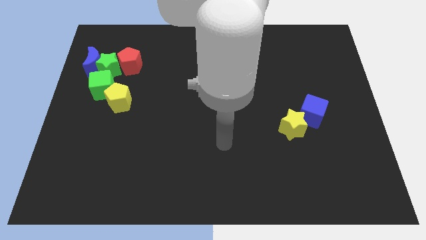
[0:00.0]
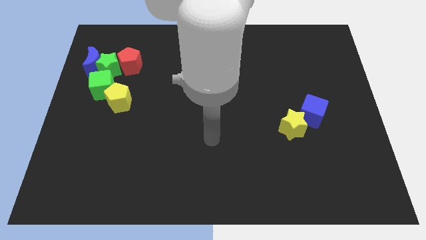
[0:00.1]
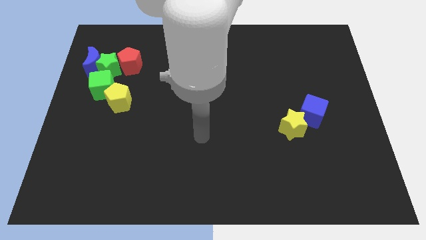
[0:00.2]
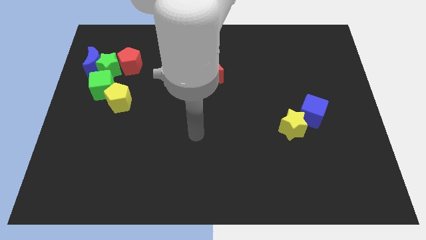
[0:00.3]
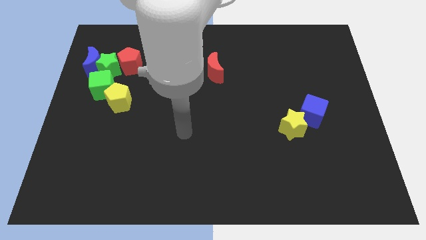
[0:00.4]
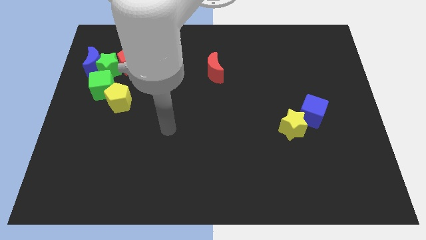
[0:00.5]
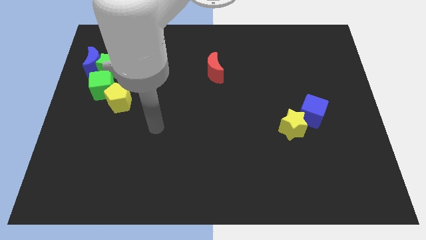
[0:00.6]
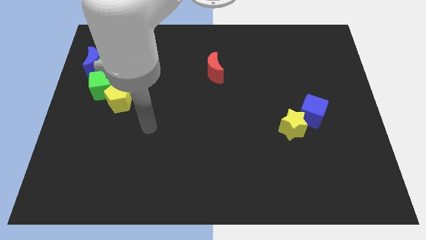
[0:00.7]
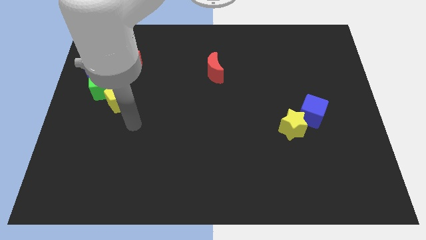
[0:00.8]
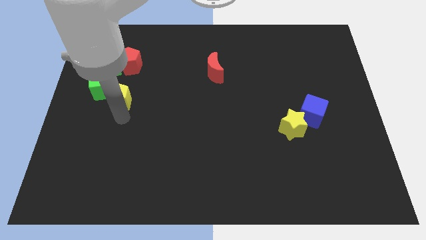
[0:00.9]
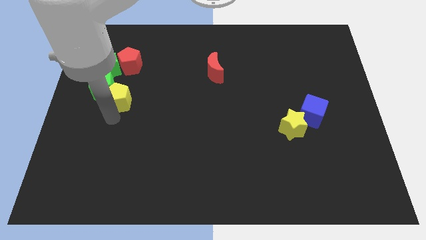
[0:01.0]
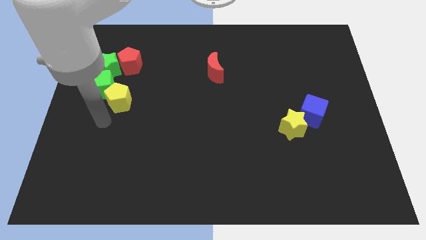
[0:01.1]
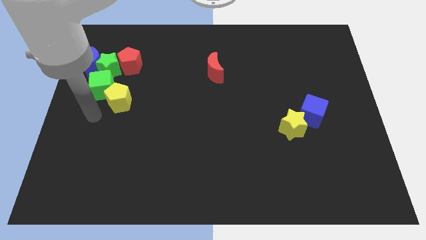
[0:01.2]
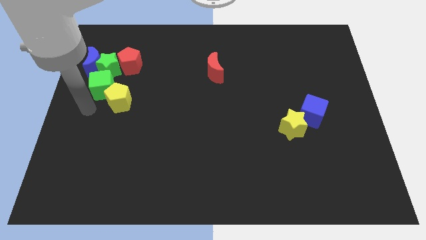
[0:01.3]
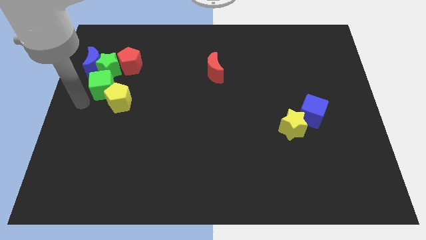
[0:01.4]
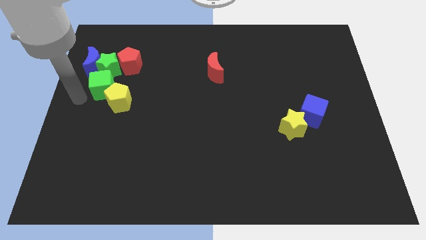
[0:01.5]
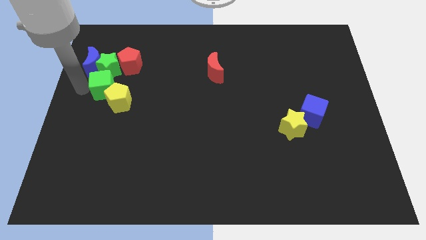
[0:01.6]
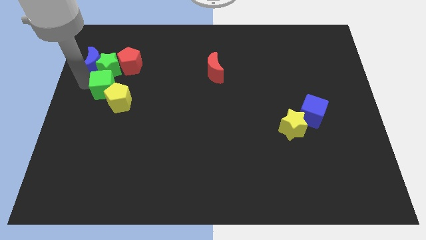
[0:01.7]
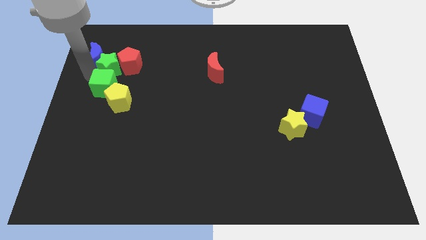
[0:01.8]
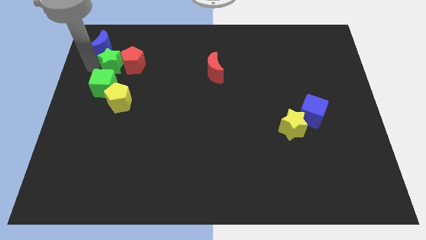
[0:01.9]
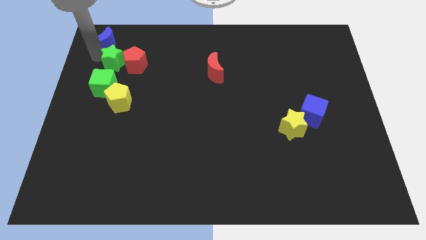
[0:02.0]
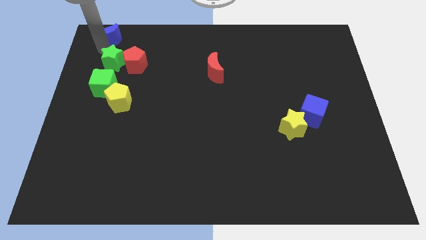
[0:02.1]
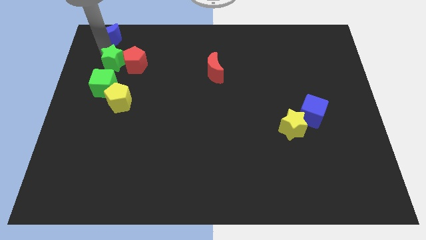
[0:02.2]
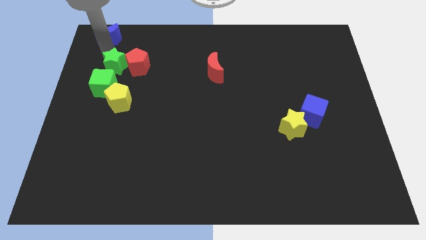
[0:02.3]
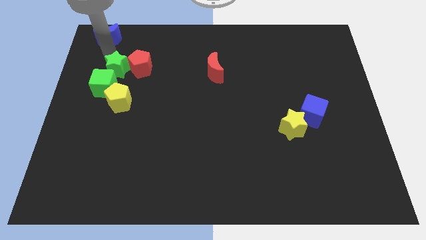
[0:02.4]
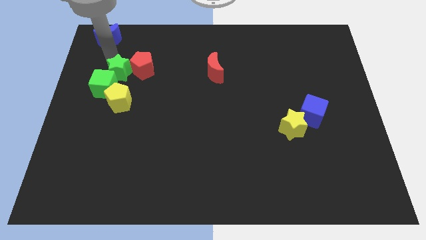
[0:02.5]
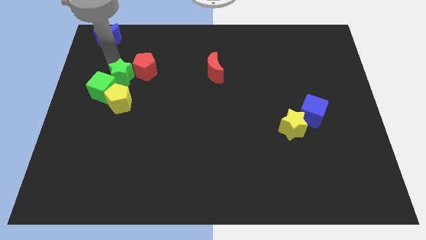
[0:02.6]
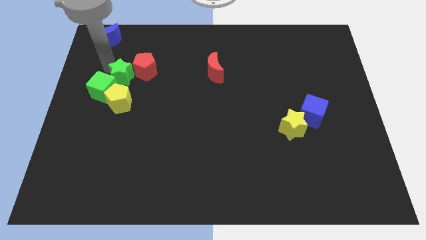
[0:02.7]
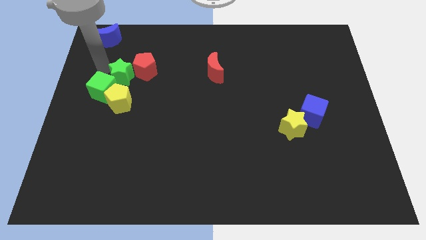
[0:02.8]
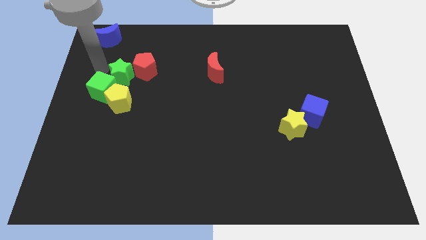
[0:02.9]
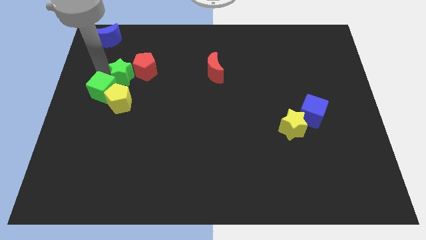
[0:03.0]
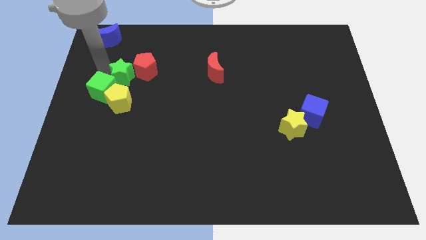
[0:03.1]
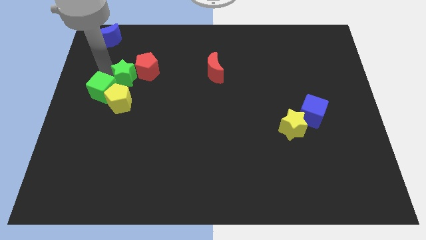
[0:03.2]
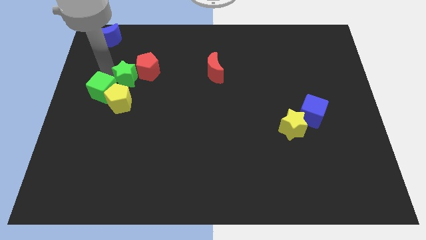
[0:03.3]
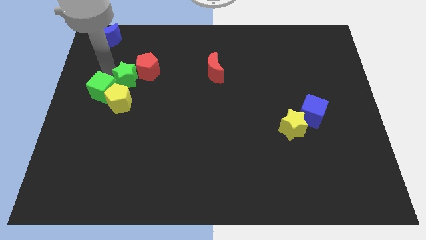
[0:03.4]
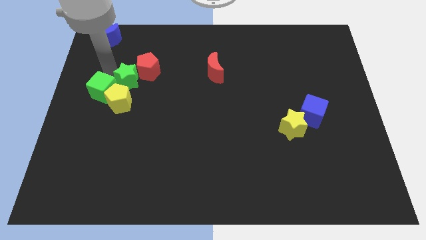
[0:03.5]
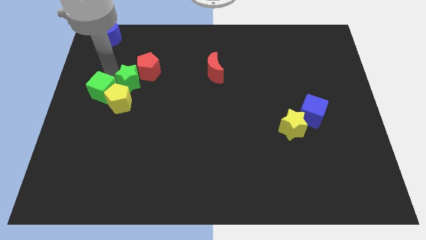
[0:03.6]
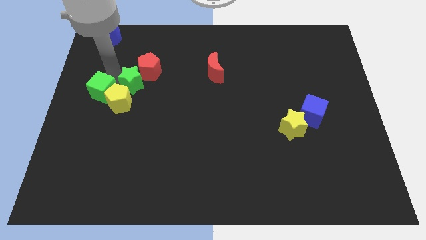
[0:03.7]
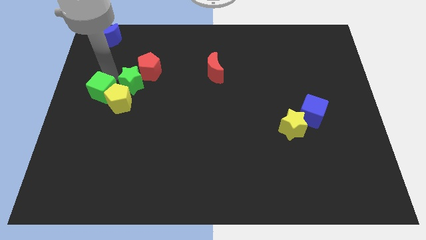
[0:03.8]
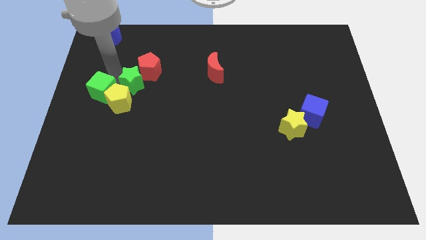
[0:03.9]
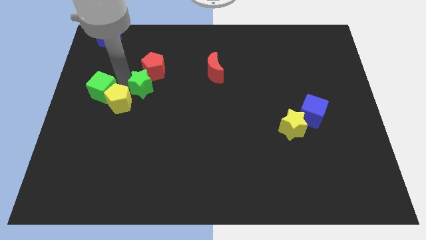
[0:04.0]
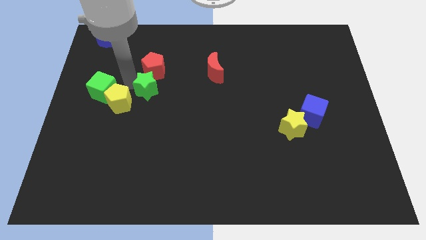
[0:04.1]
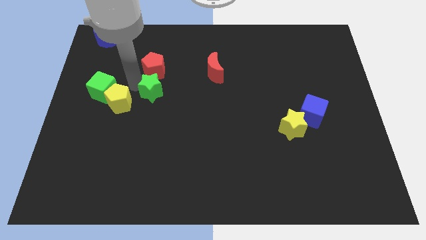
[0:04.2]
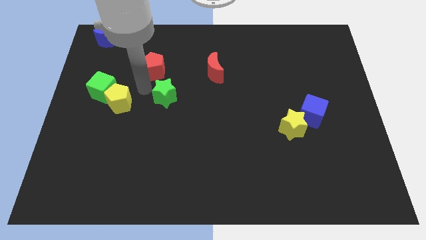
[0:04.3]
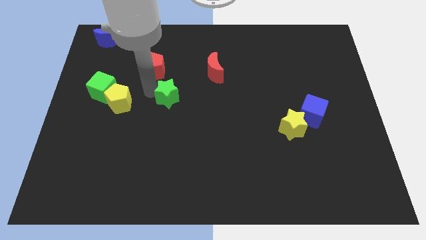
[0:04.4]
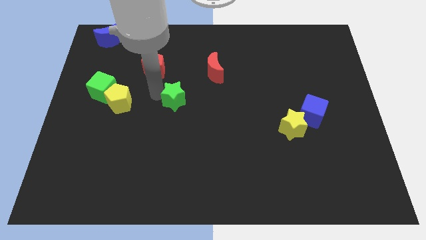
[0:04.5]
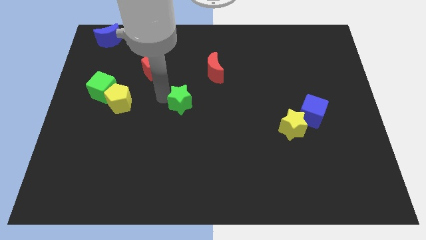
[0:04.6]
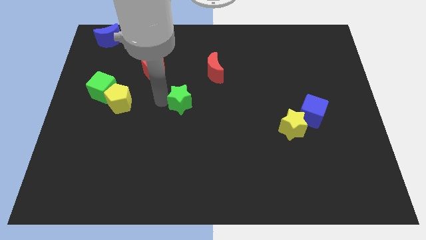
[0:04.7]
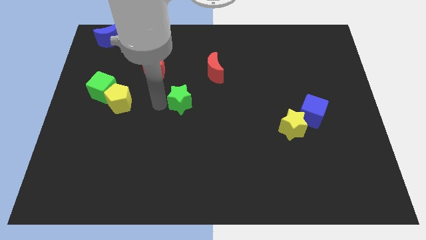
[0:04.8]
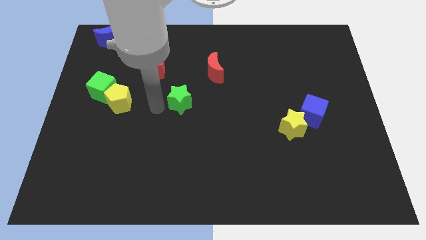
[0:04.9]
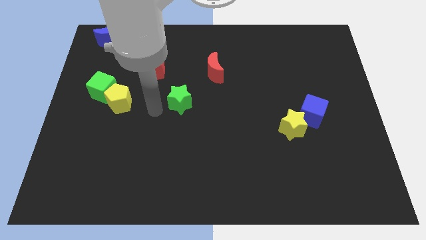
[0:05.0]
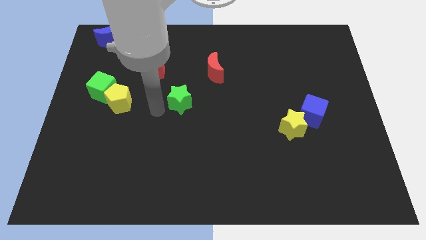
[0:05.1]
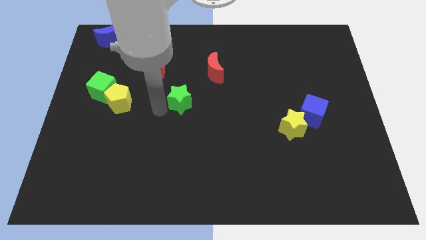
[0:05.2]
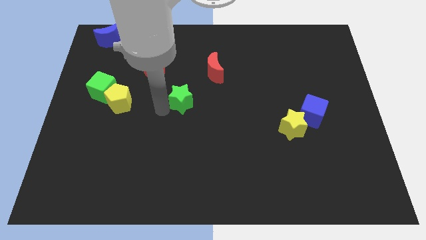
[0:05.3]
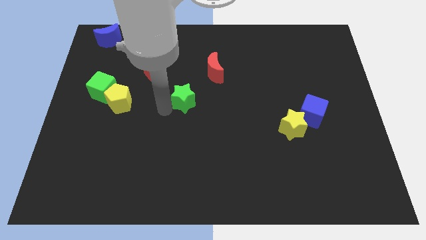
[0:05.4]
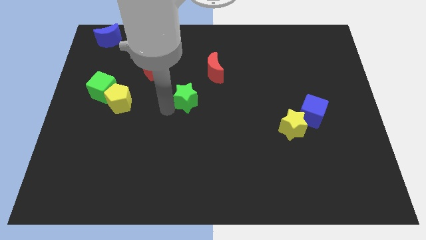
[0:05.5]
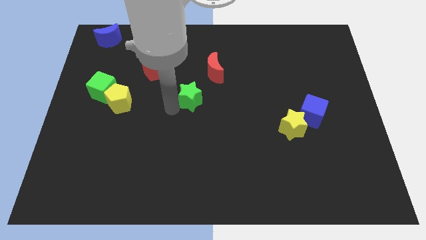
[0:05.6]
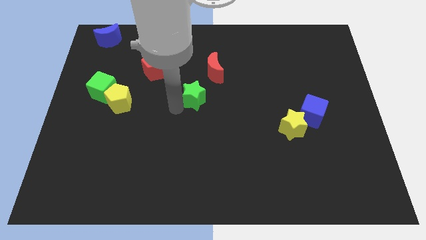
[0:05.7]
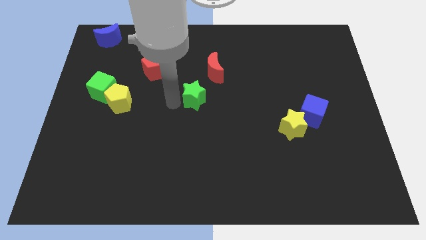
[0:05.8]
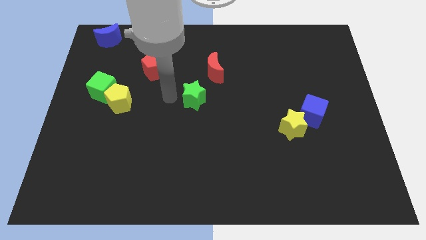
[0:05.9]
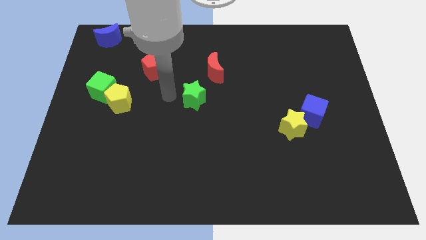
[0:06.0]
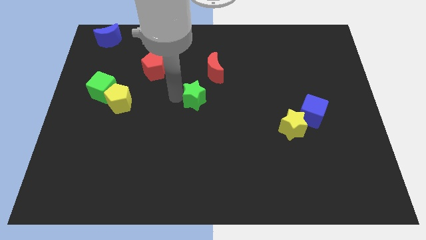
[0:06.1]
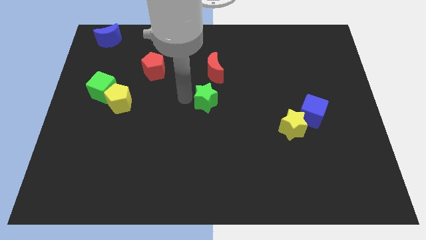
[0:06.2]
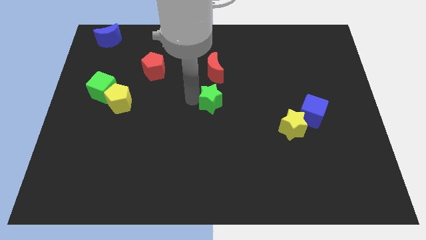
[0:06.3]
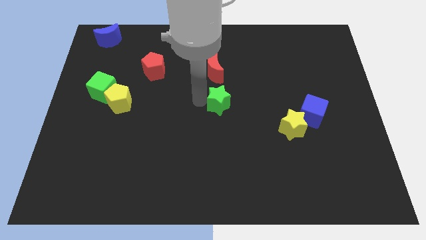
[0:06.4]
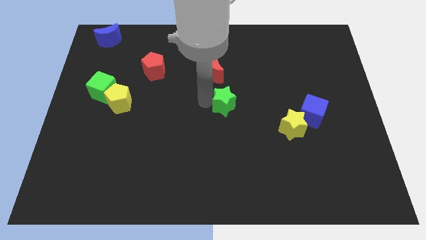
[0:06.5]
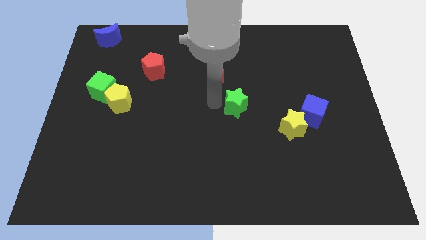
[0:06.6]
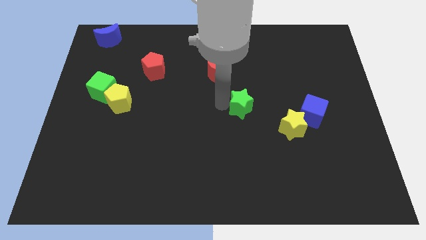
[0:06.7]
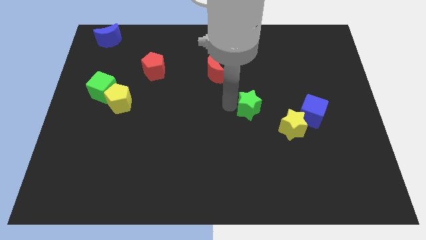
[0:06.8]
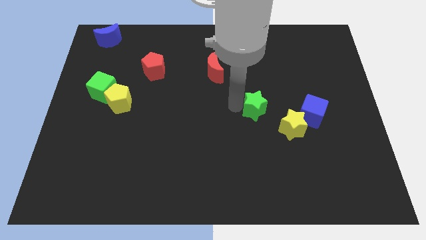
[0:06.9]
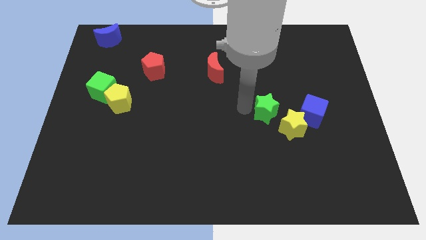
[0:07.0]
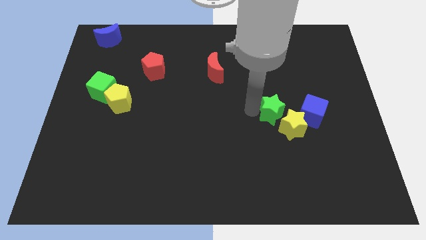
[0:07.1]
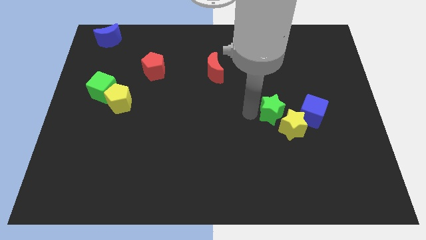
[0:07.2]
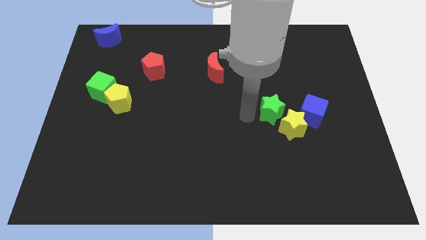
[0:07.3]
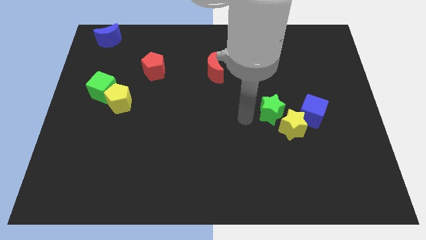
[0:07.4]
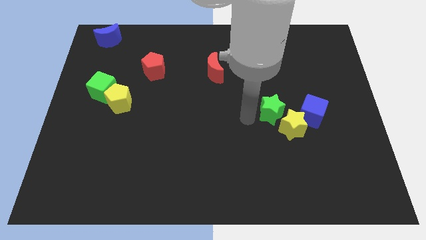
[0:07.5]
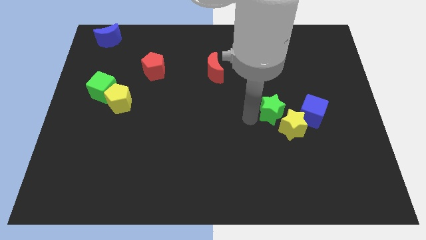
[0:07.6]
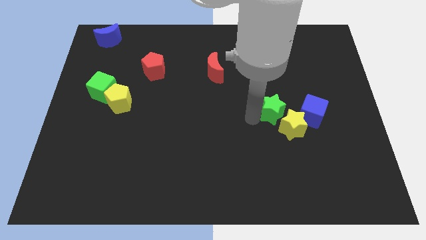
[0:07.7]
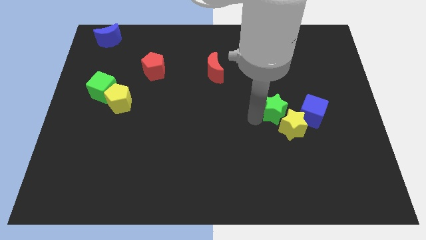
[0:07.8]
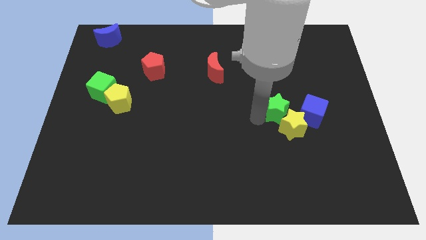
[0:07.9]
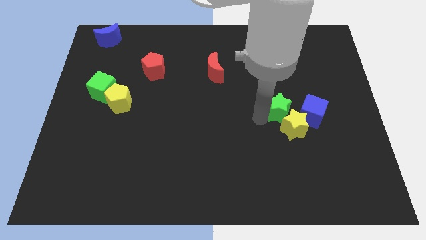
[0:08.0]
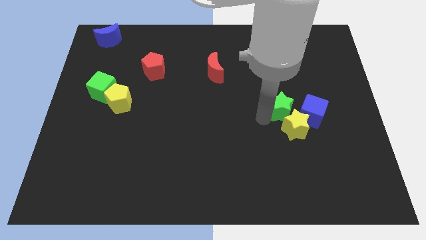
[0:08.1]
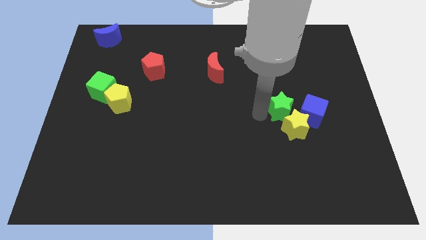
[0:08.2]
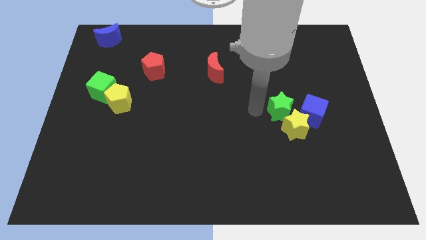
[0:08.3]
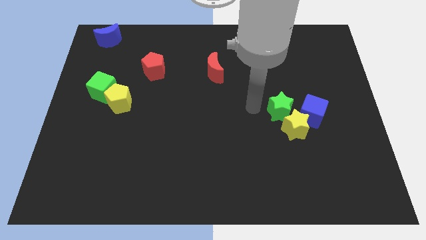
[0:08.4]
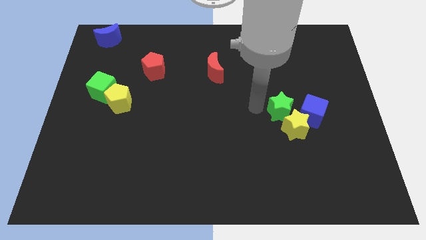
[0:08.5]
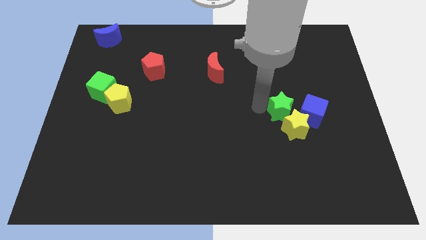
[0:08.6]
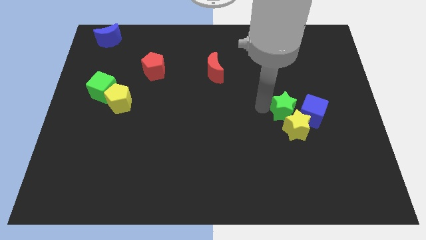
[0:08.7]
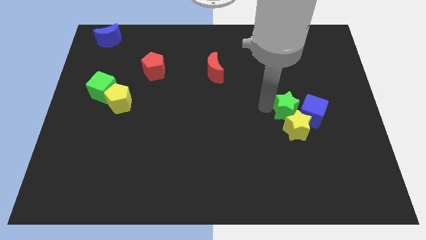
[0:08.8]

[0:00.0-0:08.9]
push the green star to the blue cube
